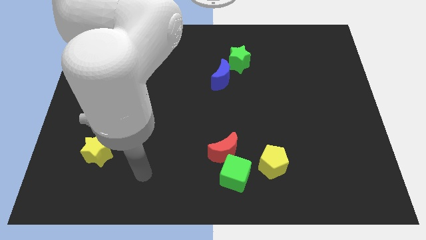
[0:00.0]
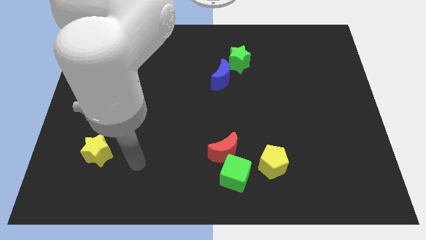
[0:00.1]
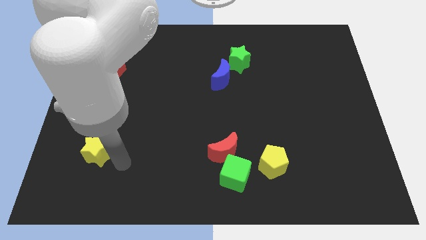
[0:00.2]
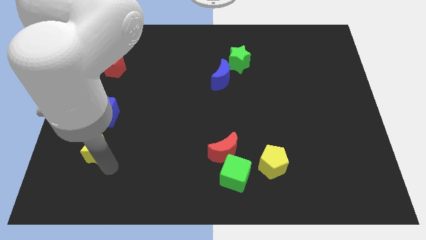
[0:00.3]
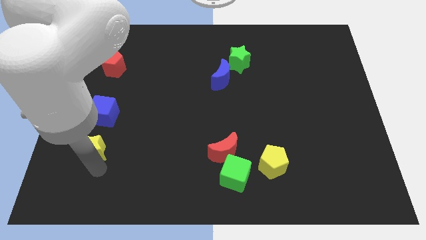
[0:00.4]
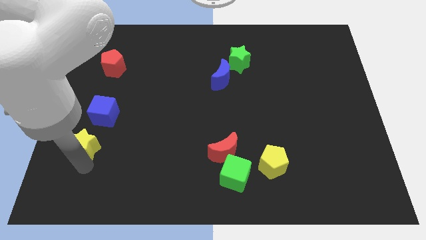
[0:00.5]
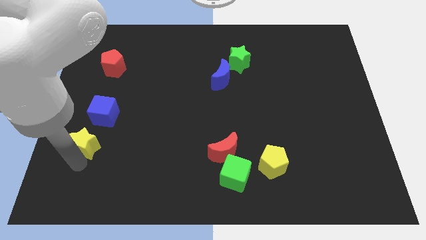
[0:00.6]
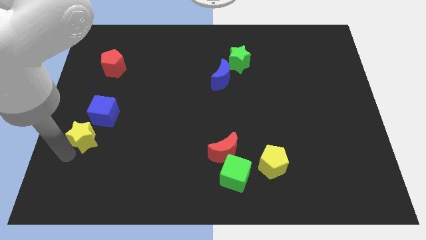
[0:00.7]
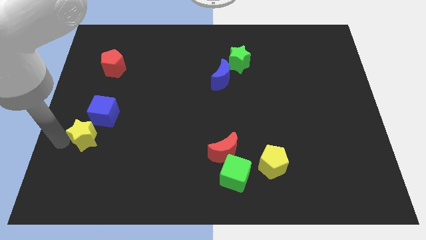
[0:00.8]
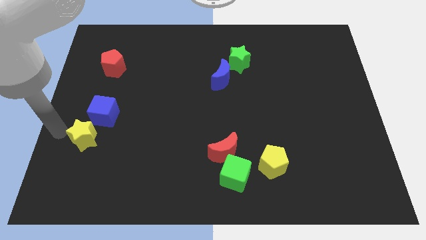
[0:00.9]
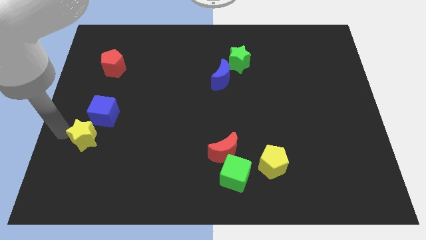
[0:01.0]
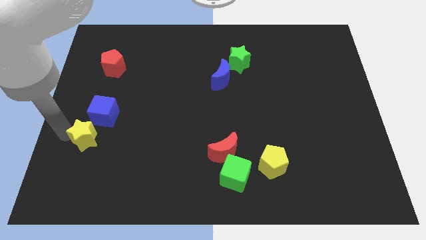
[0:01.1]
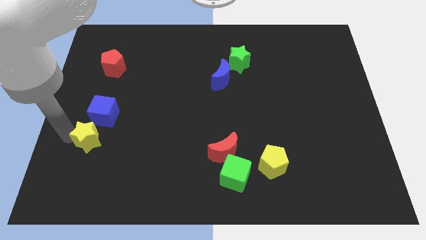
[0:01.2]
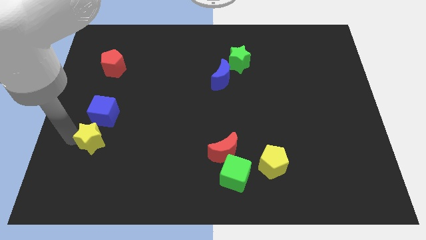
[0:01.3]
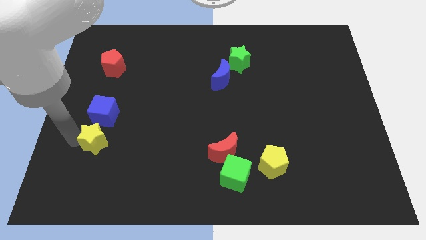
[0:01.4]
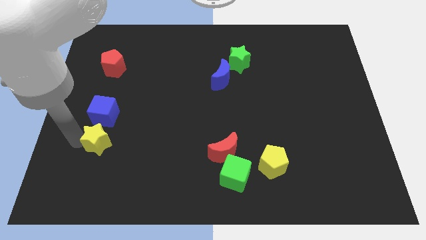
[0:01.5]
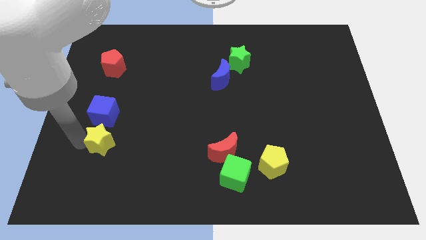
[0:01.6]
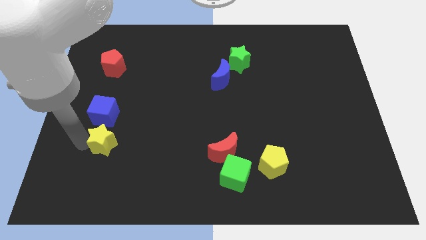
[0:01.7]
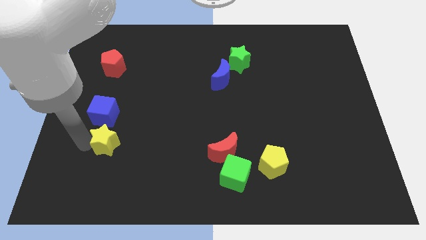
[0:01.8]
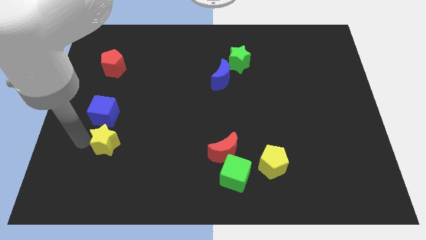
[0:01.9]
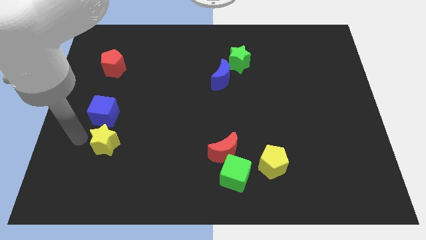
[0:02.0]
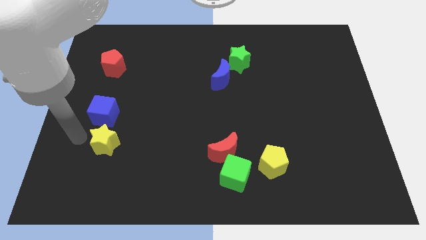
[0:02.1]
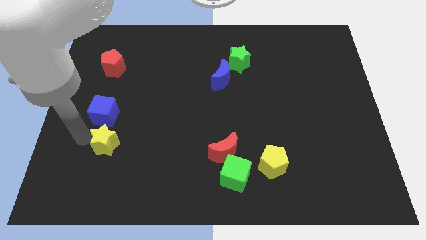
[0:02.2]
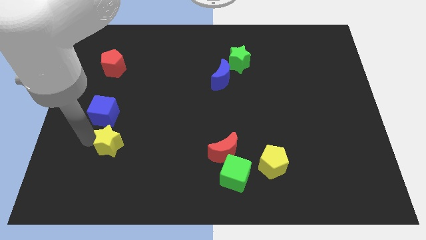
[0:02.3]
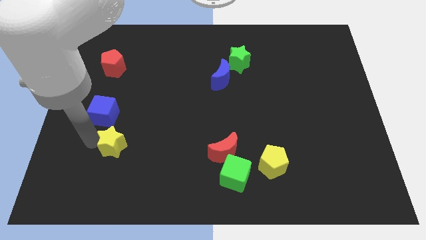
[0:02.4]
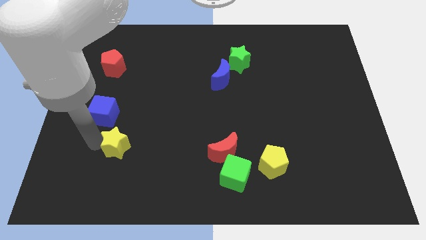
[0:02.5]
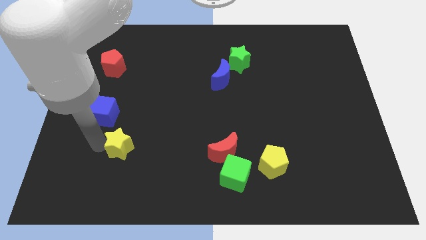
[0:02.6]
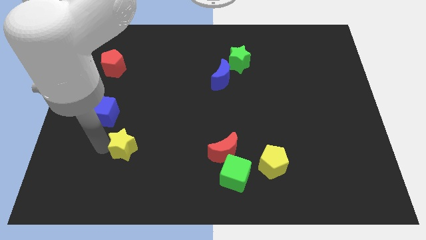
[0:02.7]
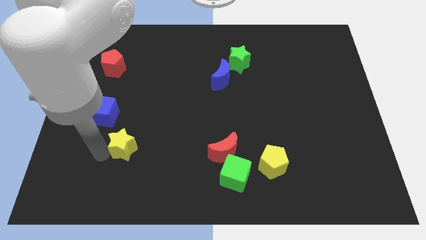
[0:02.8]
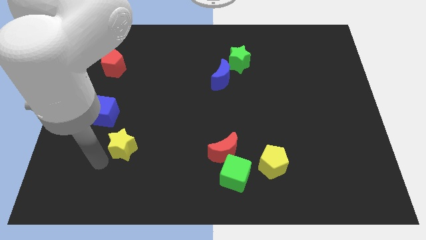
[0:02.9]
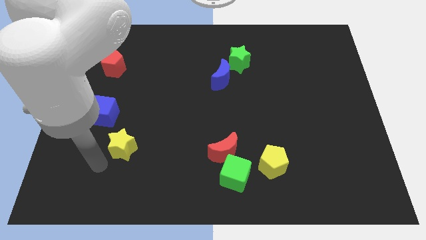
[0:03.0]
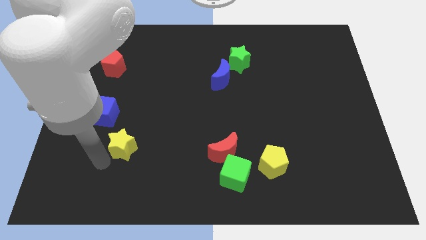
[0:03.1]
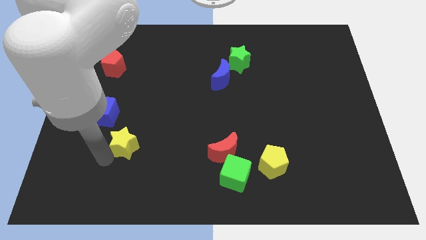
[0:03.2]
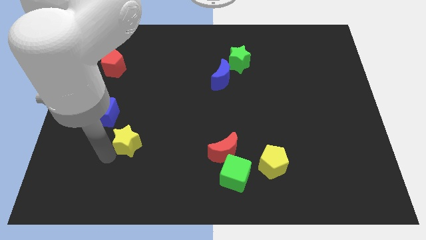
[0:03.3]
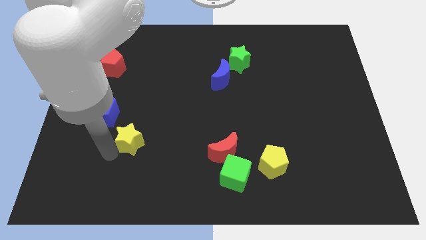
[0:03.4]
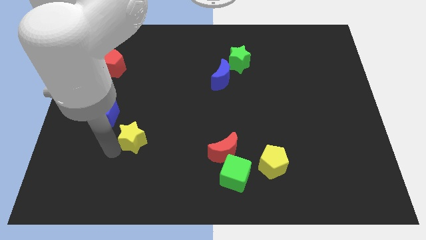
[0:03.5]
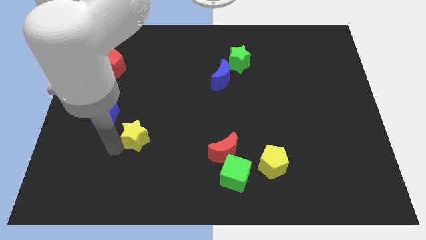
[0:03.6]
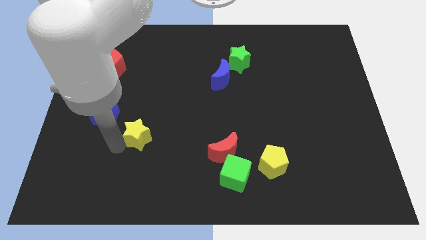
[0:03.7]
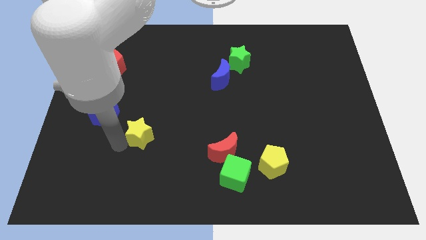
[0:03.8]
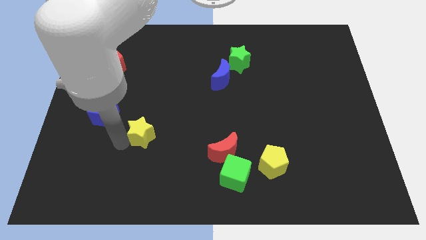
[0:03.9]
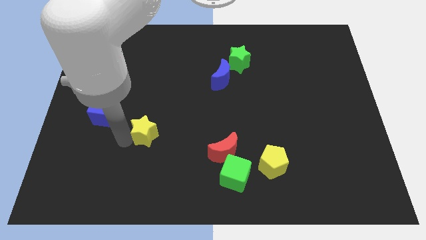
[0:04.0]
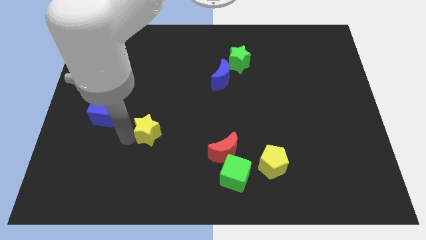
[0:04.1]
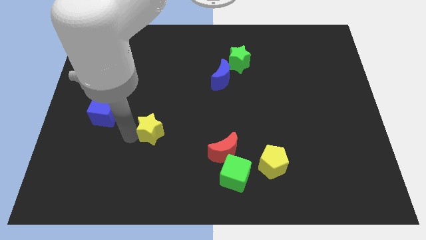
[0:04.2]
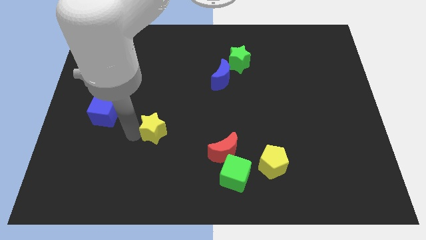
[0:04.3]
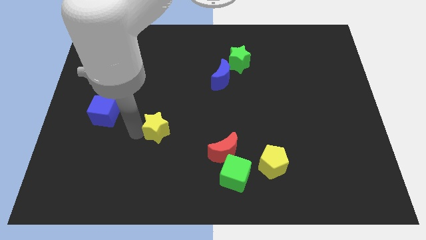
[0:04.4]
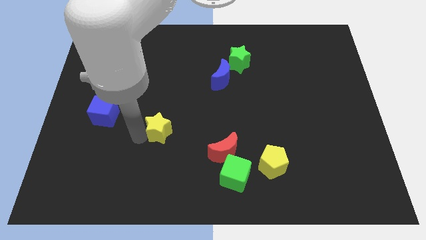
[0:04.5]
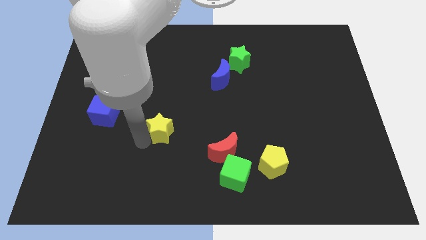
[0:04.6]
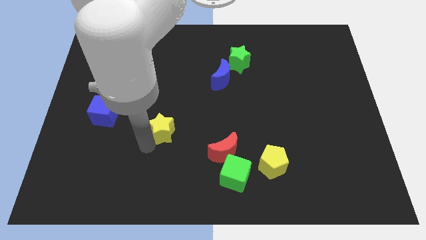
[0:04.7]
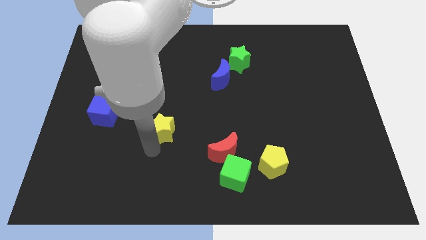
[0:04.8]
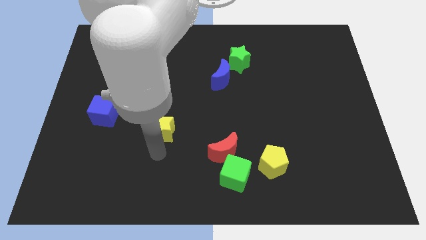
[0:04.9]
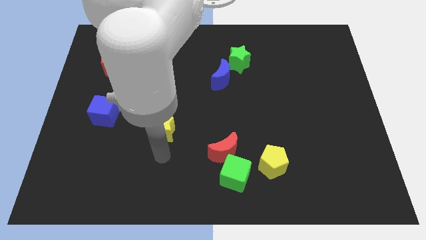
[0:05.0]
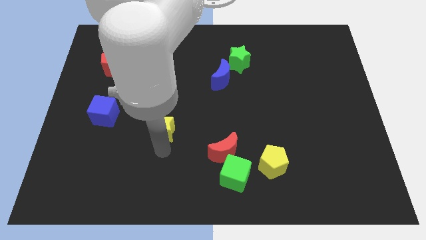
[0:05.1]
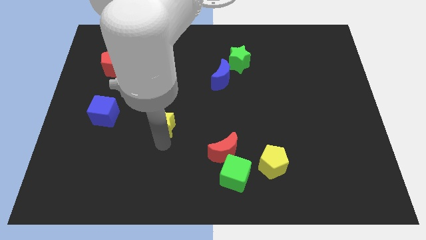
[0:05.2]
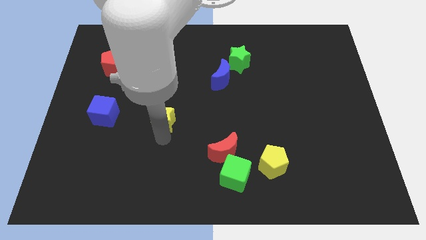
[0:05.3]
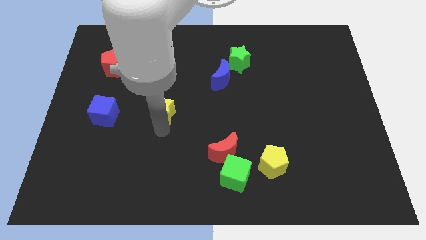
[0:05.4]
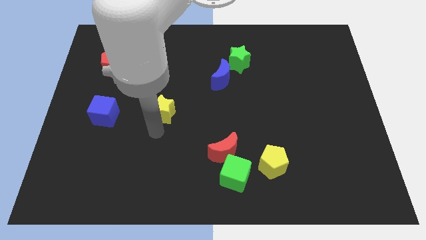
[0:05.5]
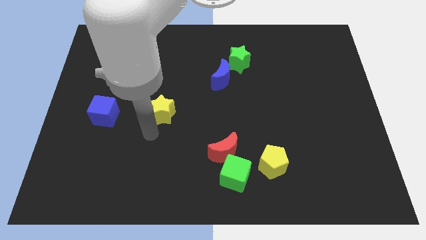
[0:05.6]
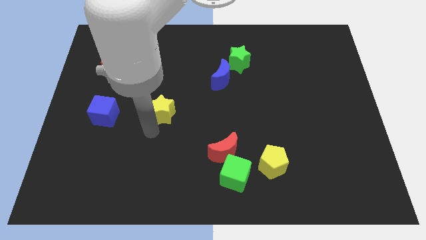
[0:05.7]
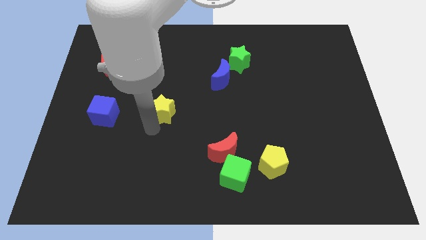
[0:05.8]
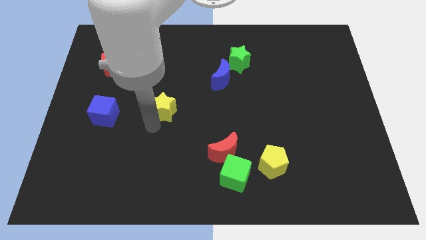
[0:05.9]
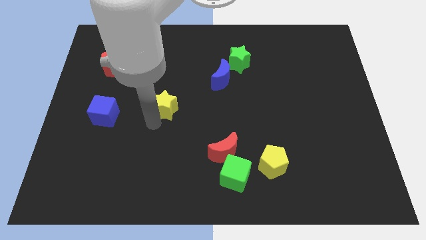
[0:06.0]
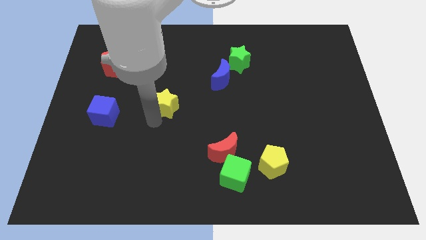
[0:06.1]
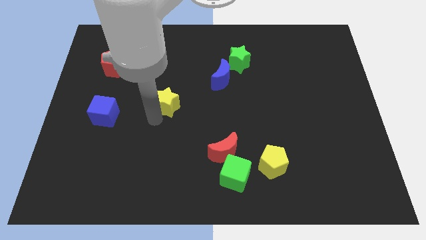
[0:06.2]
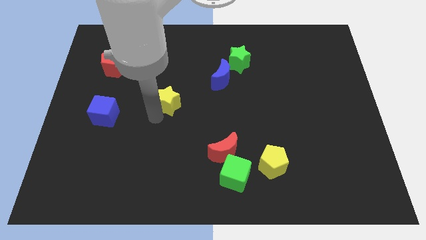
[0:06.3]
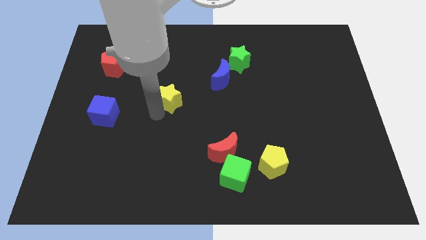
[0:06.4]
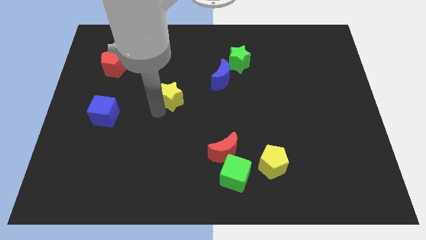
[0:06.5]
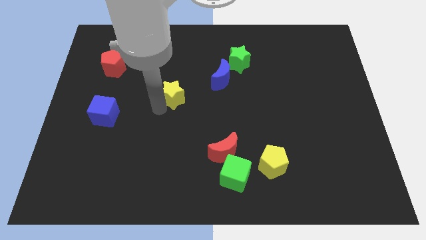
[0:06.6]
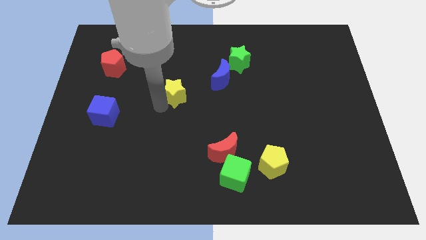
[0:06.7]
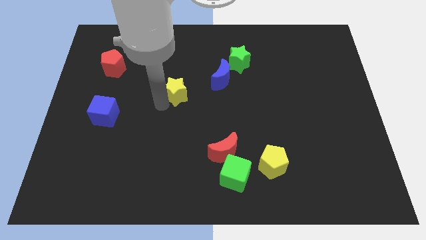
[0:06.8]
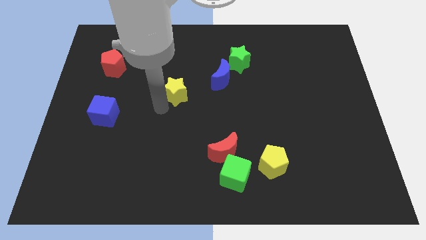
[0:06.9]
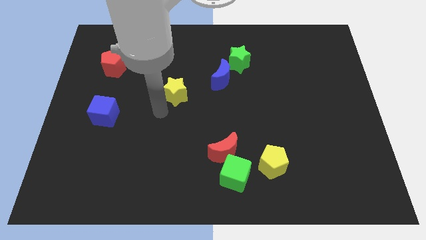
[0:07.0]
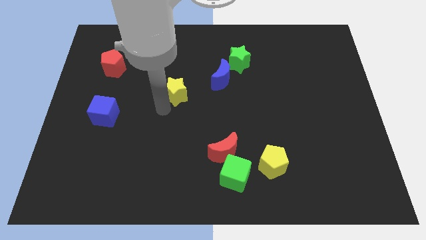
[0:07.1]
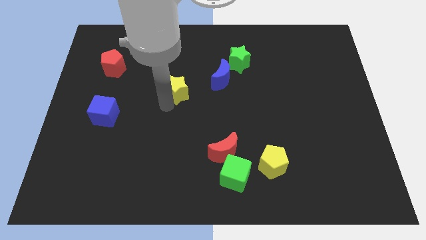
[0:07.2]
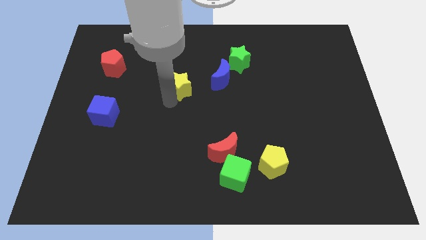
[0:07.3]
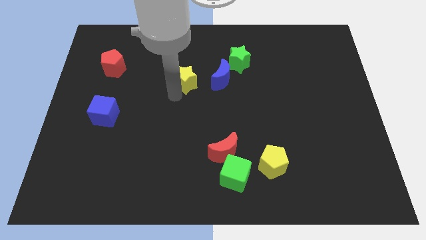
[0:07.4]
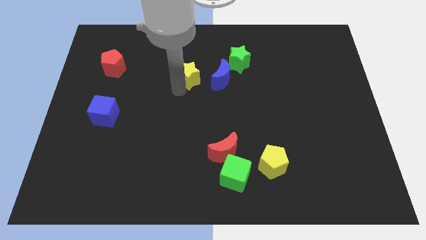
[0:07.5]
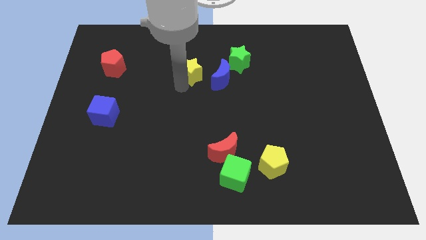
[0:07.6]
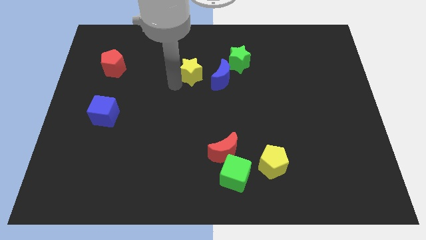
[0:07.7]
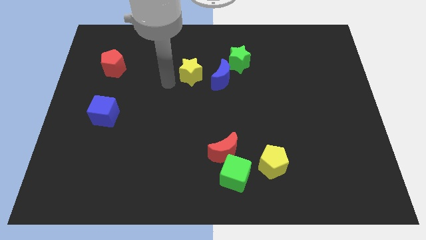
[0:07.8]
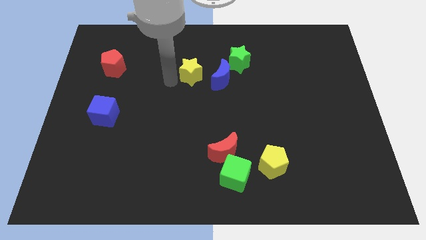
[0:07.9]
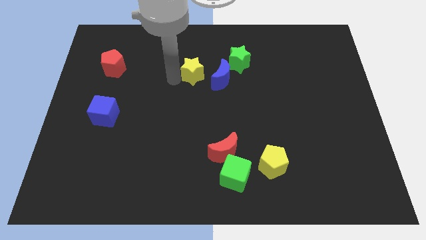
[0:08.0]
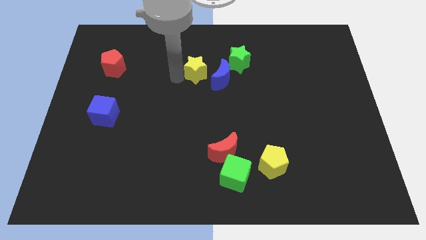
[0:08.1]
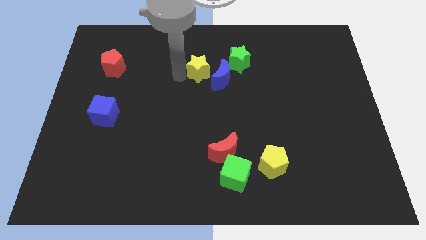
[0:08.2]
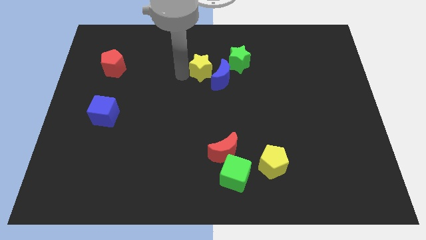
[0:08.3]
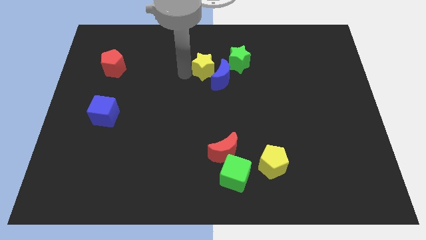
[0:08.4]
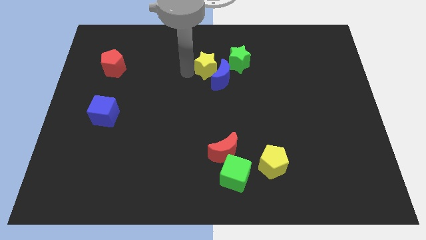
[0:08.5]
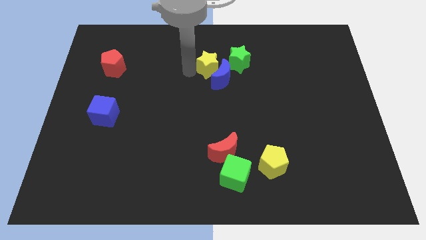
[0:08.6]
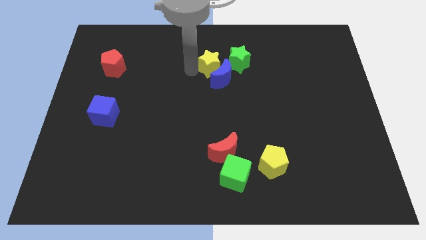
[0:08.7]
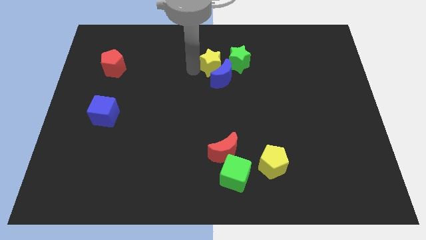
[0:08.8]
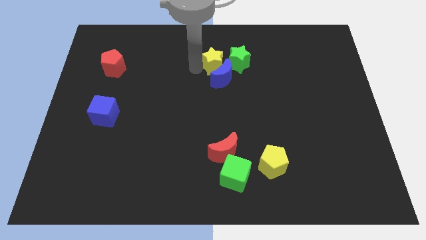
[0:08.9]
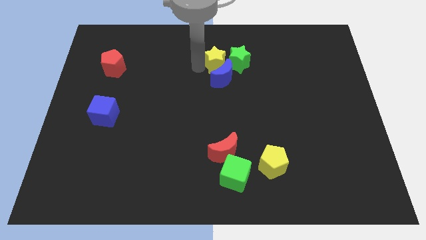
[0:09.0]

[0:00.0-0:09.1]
move the yellow star close to the green star
